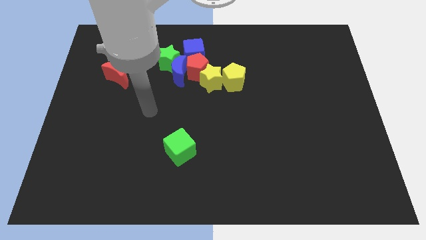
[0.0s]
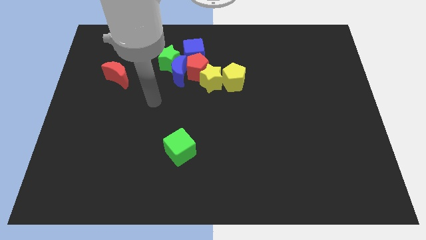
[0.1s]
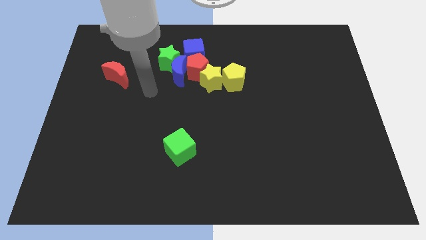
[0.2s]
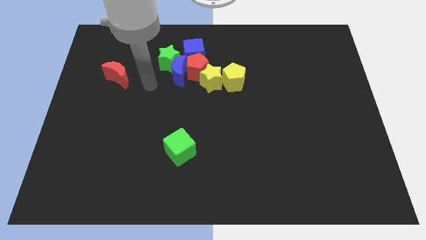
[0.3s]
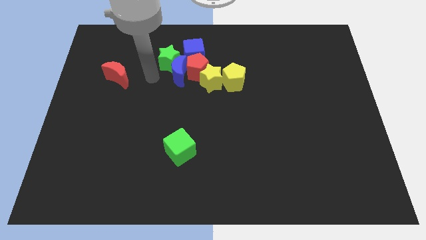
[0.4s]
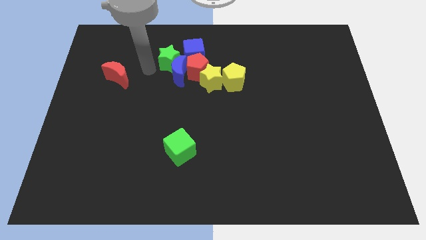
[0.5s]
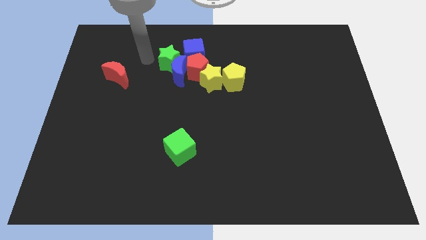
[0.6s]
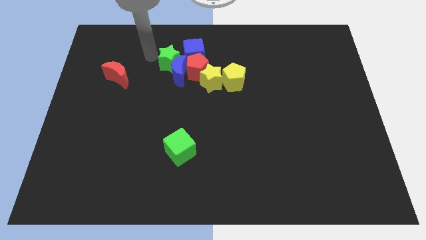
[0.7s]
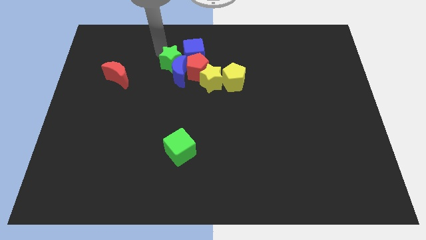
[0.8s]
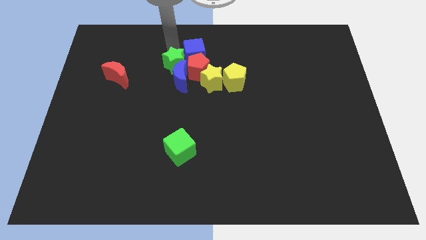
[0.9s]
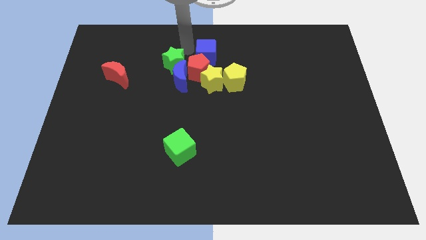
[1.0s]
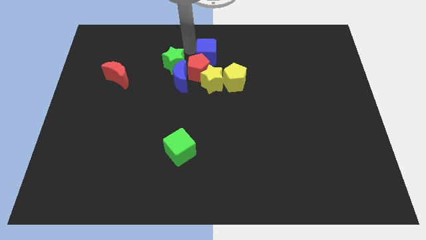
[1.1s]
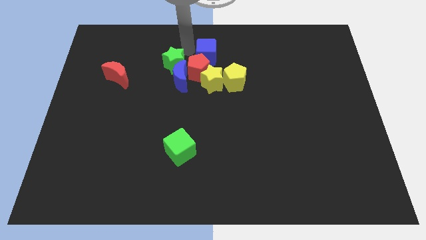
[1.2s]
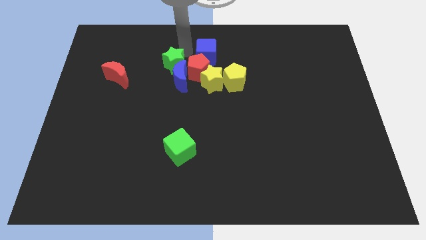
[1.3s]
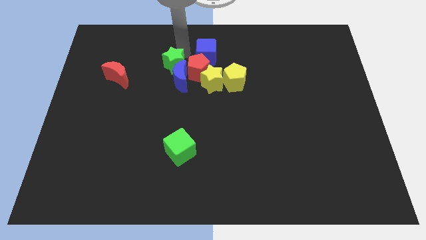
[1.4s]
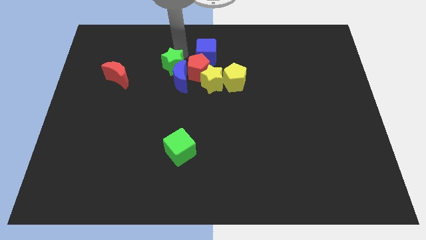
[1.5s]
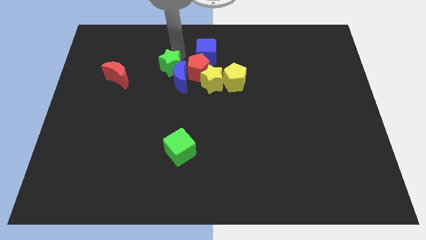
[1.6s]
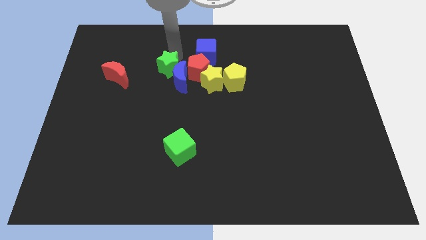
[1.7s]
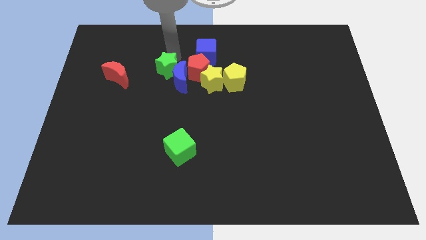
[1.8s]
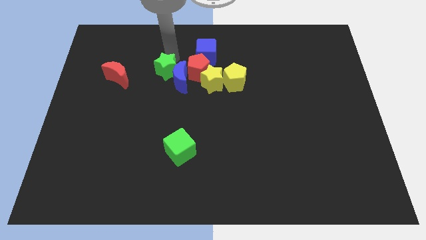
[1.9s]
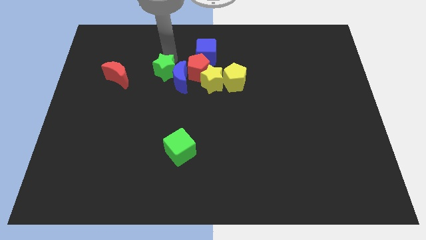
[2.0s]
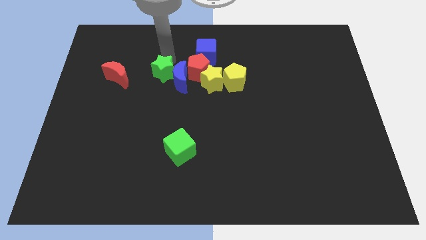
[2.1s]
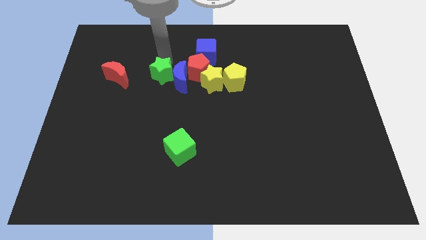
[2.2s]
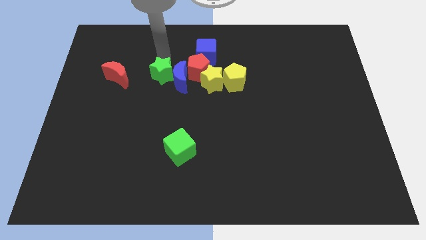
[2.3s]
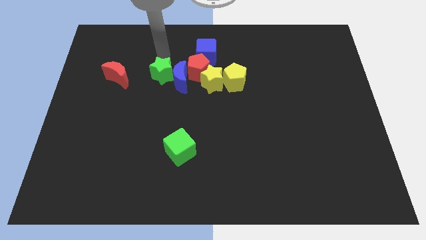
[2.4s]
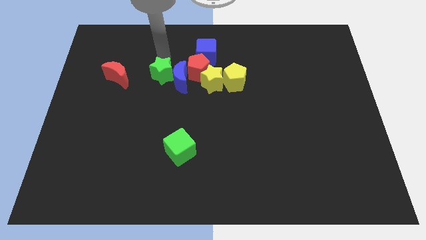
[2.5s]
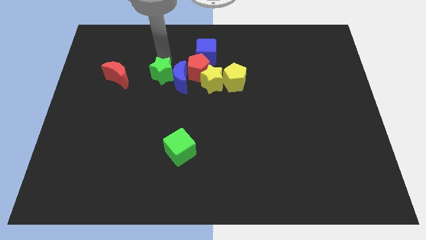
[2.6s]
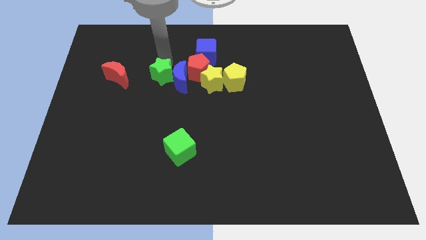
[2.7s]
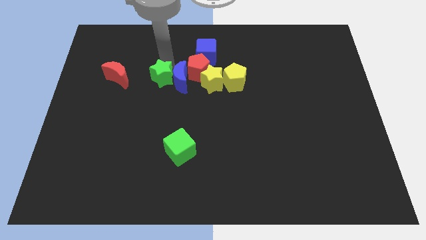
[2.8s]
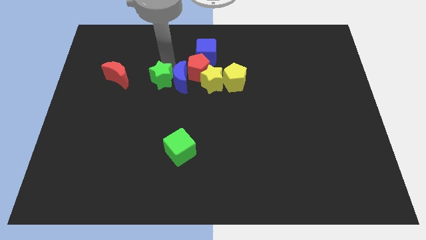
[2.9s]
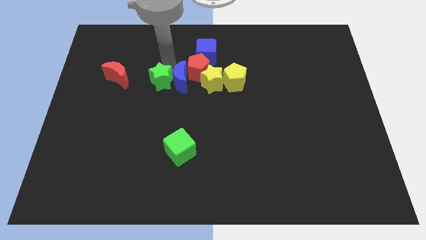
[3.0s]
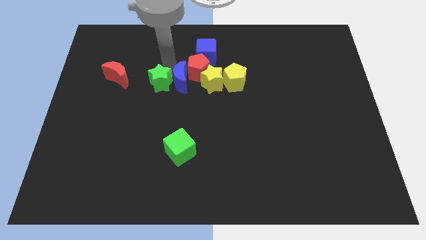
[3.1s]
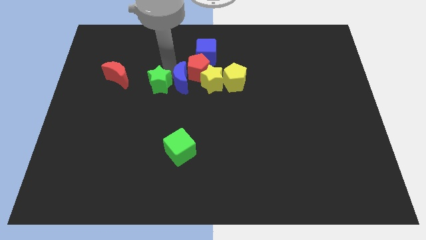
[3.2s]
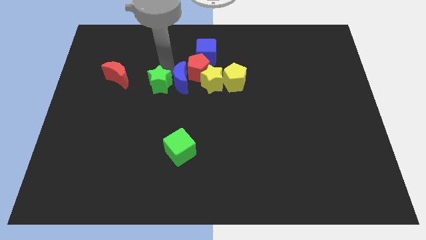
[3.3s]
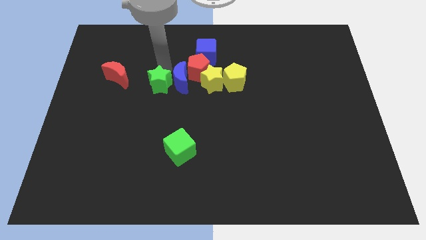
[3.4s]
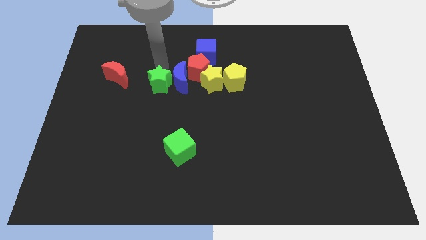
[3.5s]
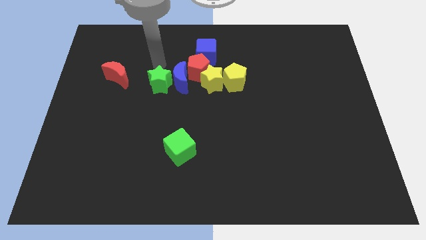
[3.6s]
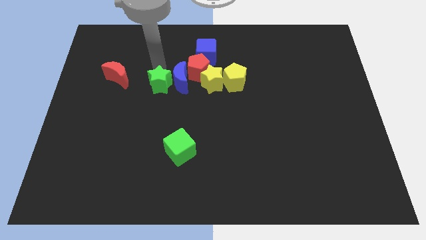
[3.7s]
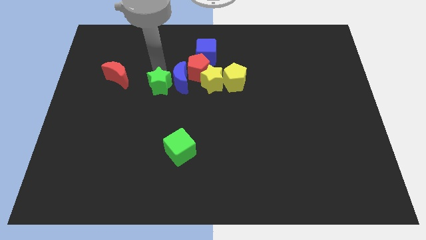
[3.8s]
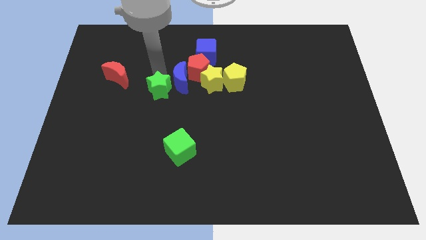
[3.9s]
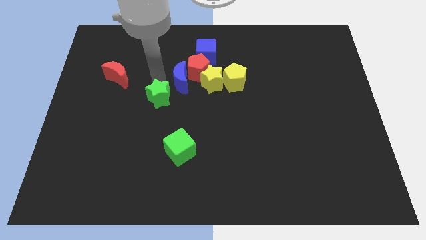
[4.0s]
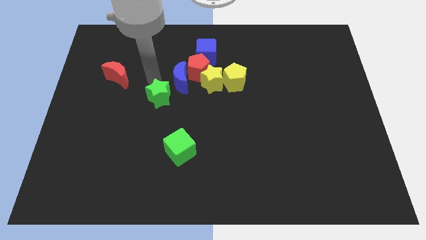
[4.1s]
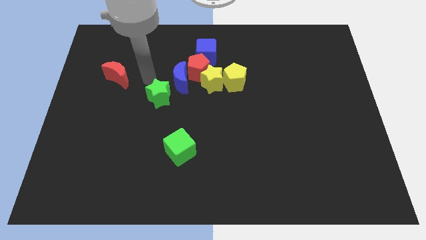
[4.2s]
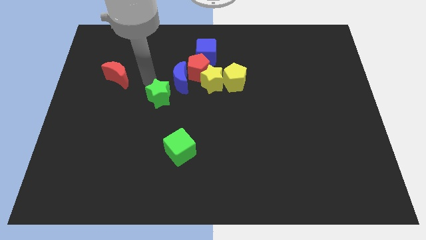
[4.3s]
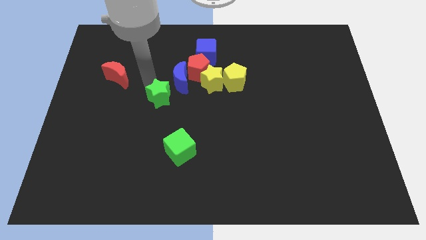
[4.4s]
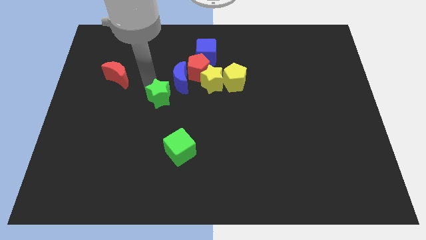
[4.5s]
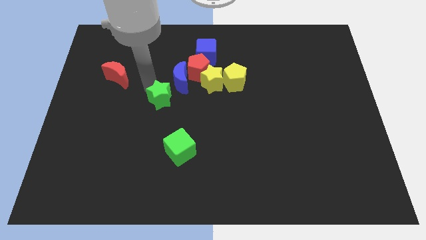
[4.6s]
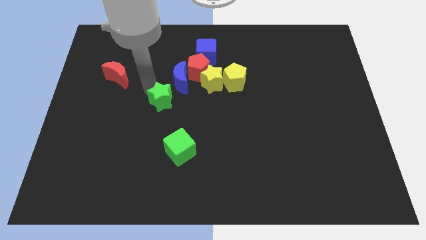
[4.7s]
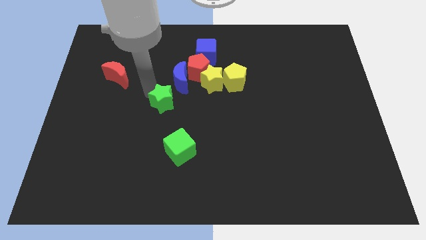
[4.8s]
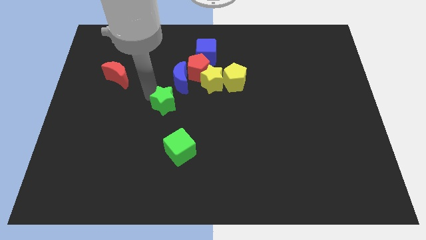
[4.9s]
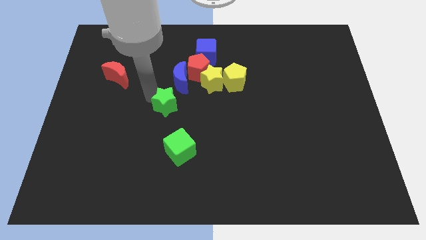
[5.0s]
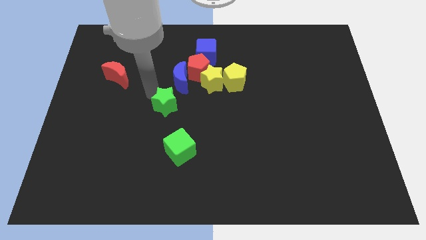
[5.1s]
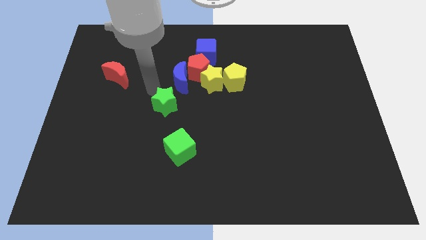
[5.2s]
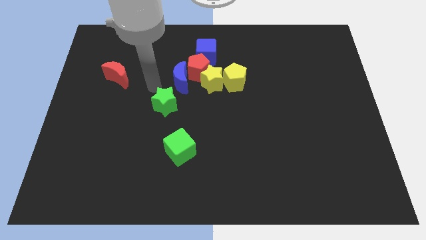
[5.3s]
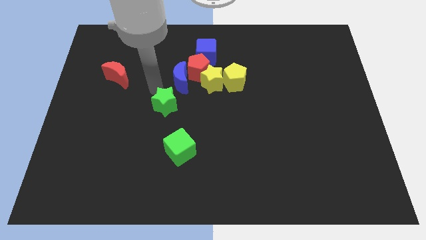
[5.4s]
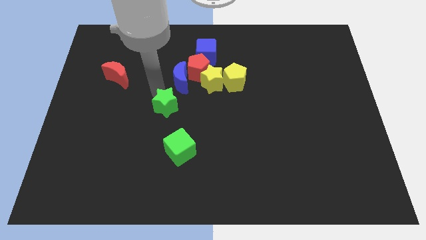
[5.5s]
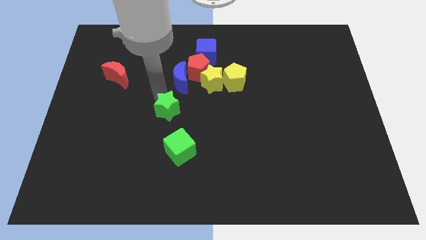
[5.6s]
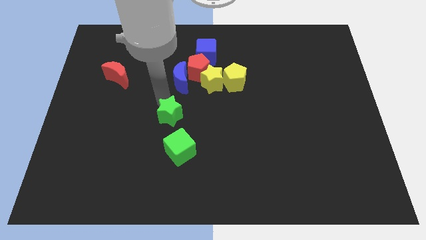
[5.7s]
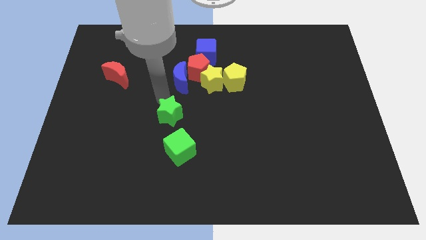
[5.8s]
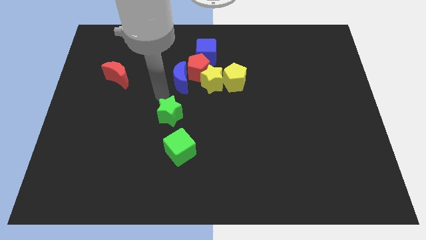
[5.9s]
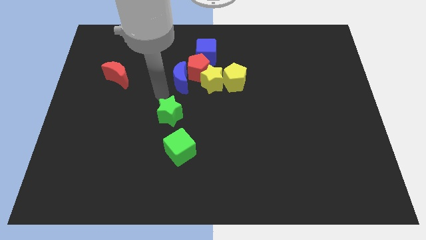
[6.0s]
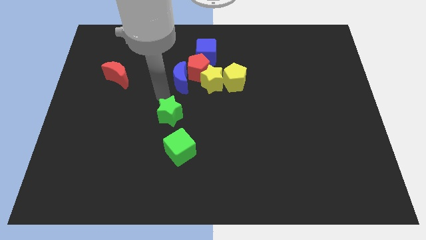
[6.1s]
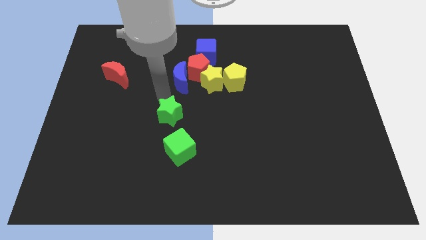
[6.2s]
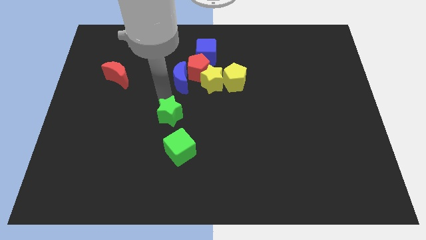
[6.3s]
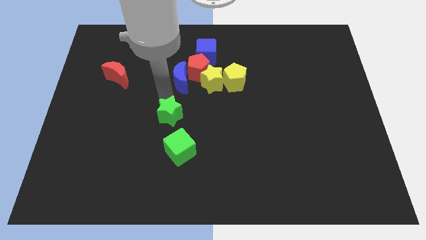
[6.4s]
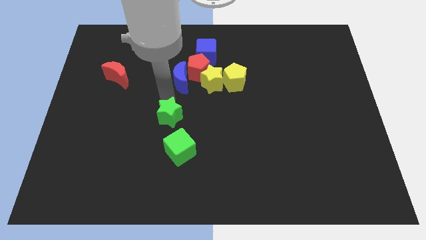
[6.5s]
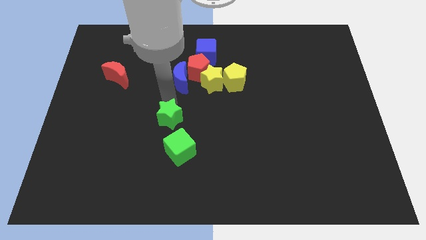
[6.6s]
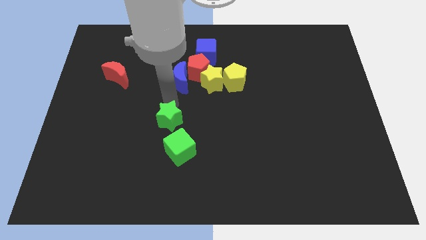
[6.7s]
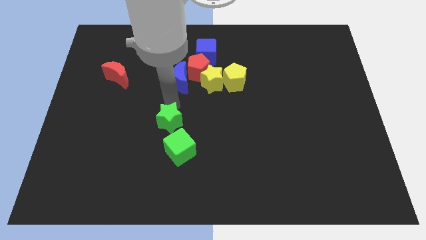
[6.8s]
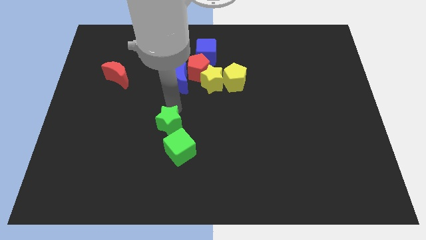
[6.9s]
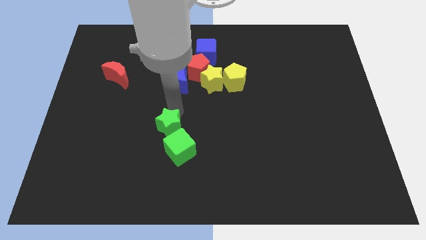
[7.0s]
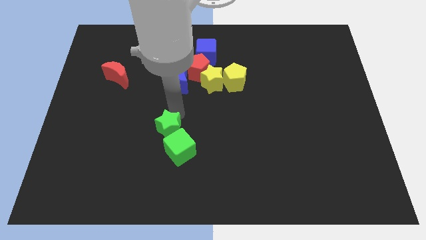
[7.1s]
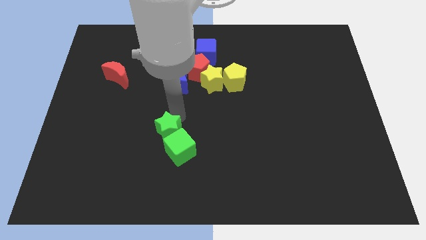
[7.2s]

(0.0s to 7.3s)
put the green star to the green cube
